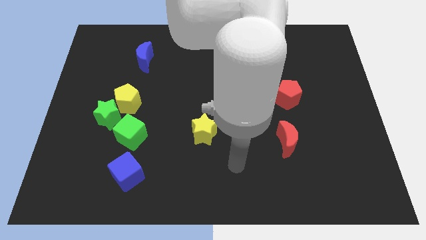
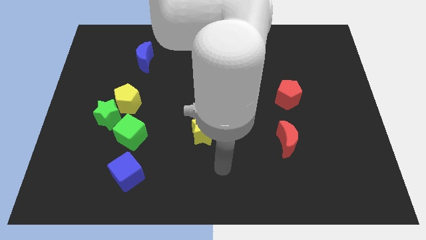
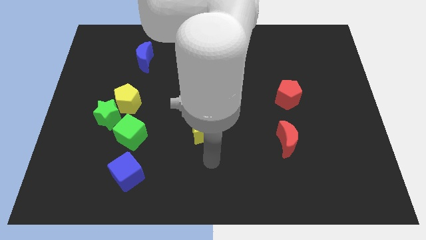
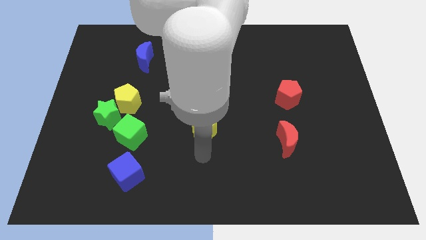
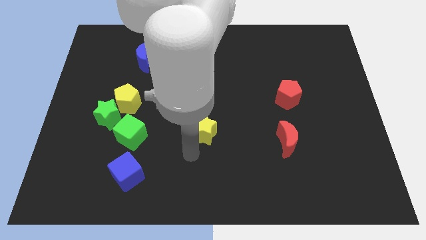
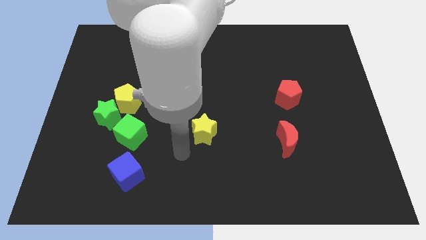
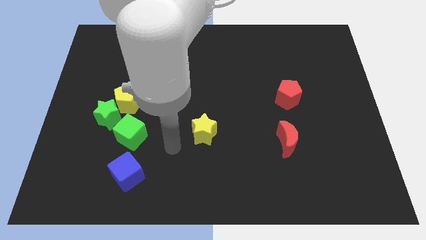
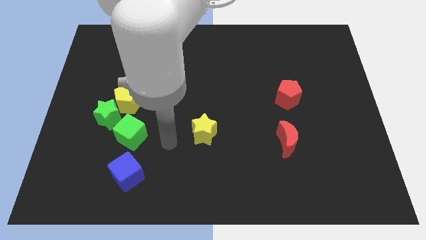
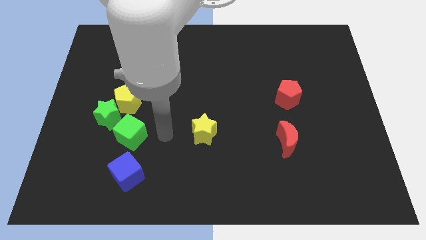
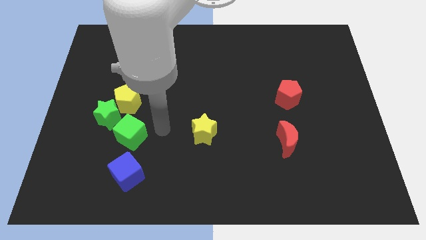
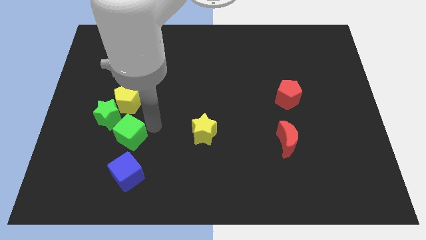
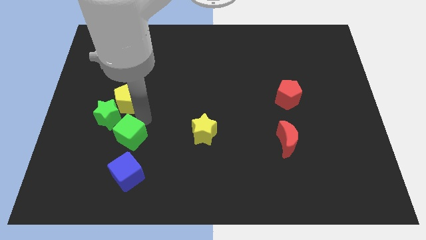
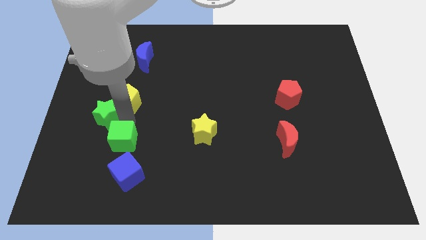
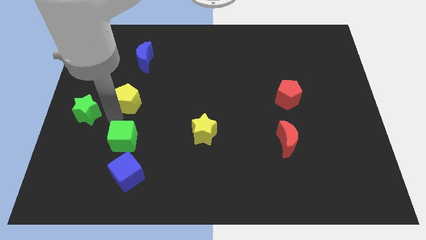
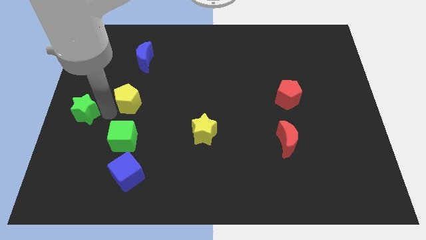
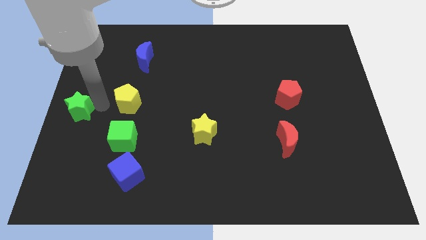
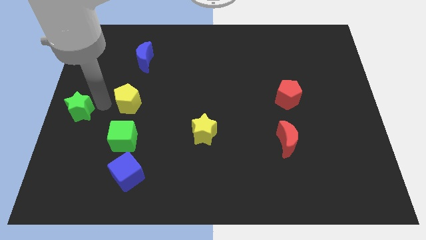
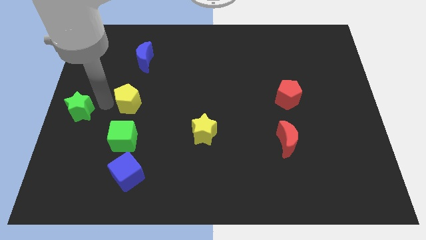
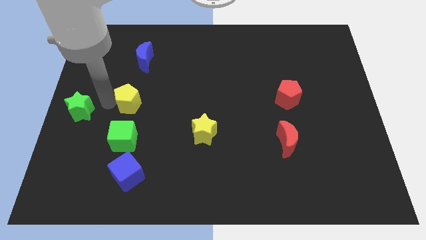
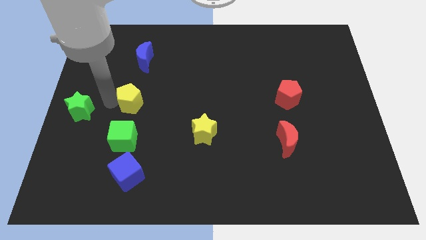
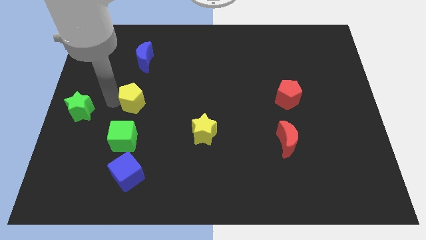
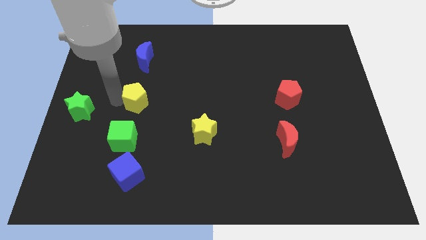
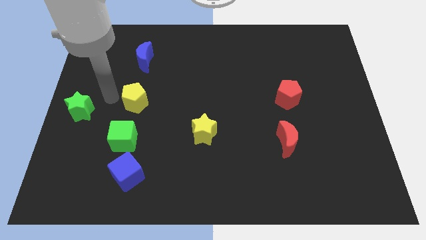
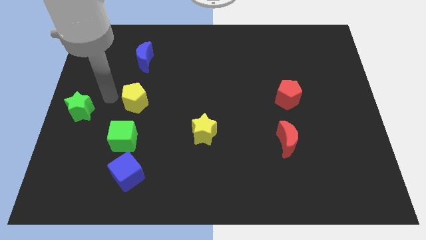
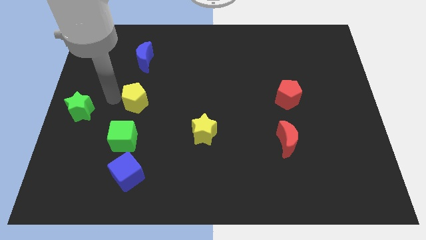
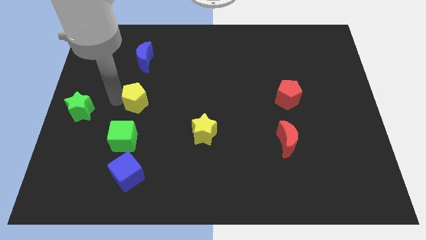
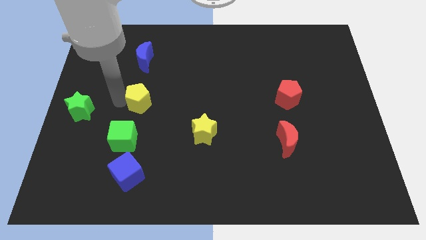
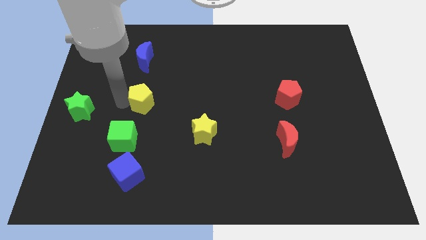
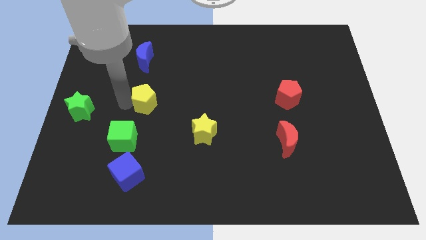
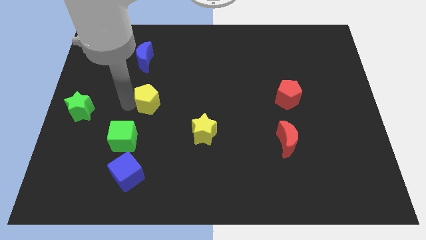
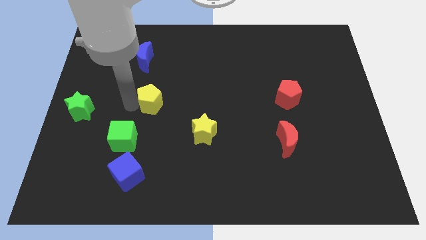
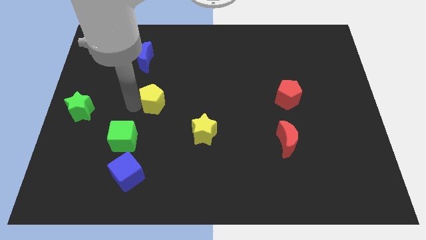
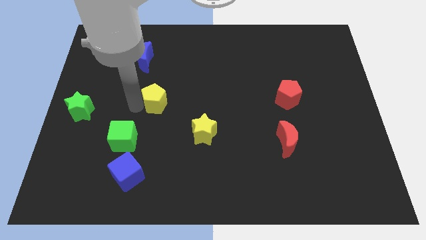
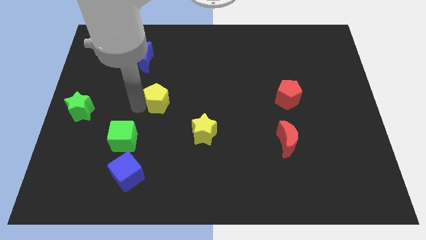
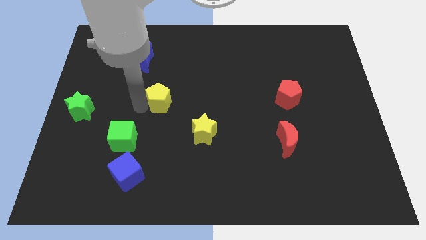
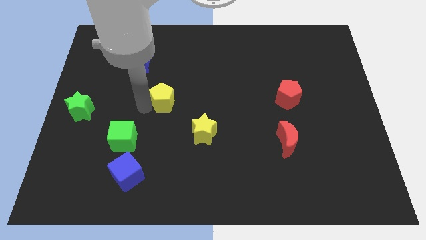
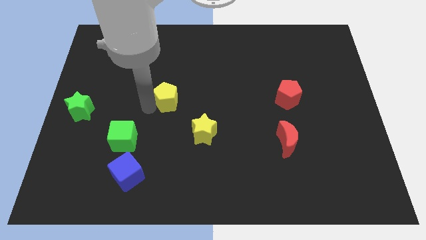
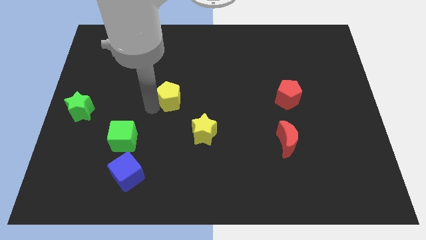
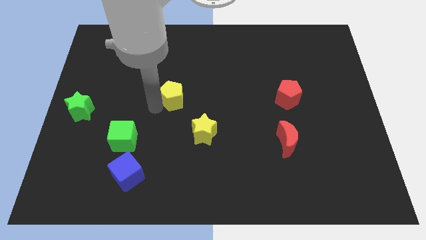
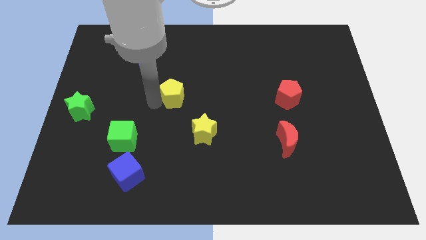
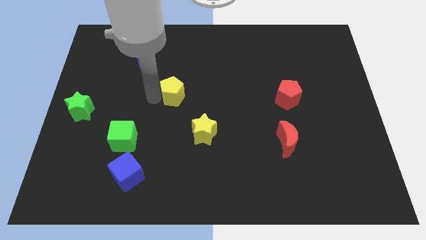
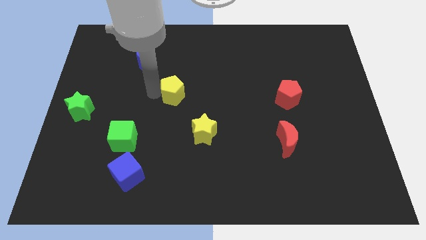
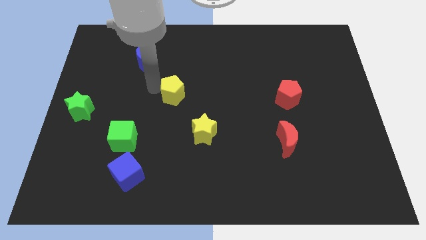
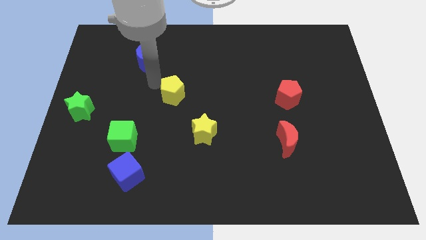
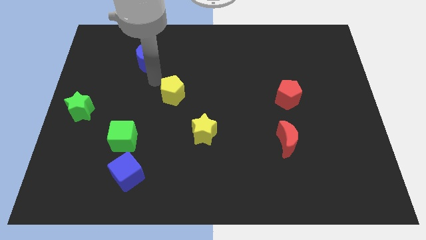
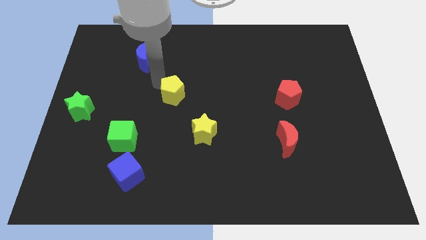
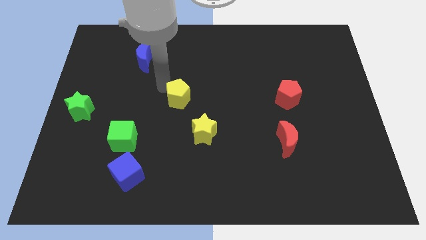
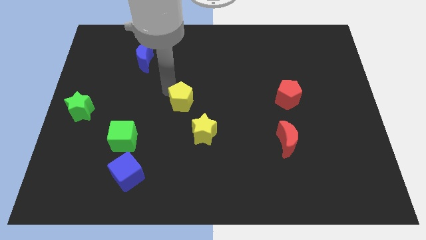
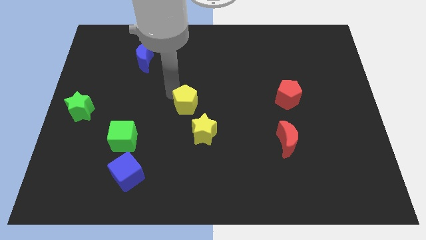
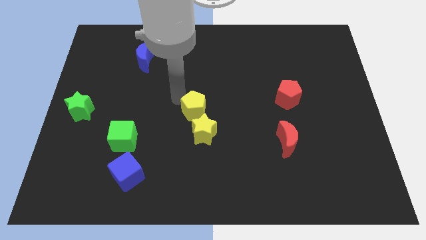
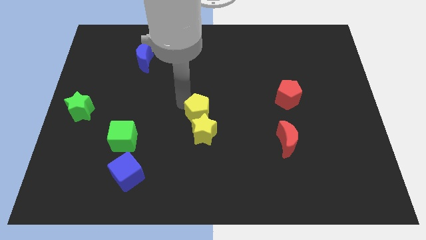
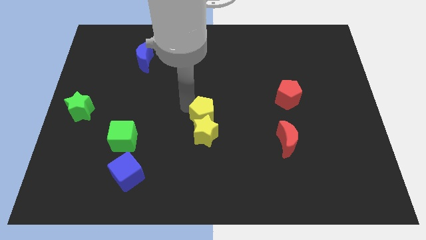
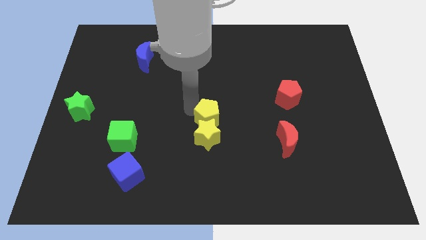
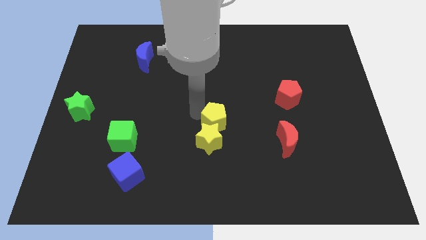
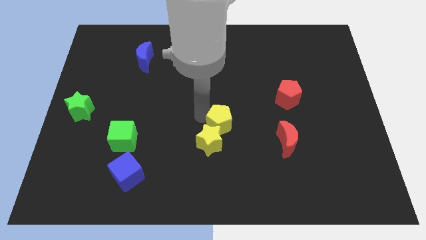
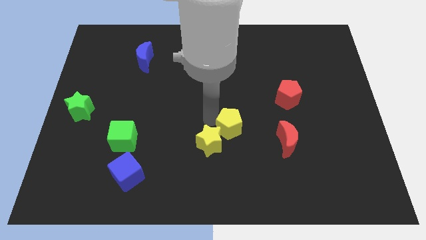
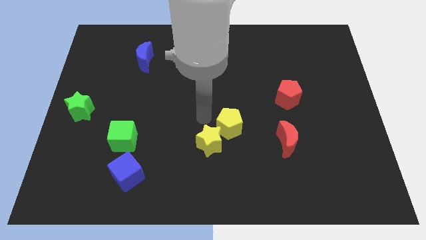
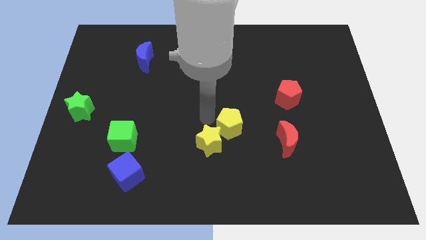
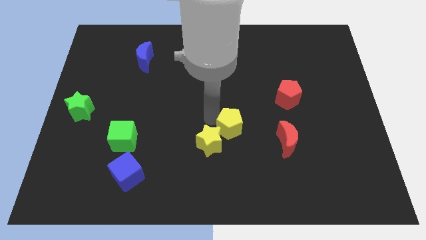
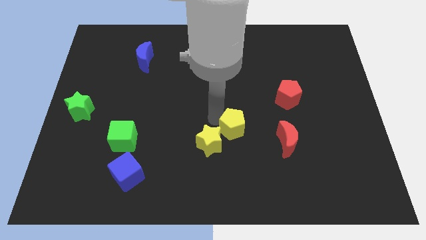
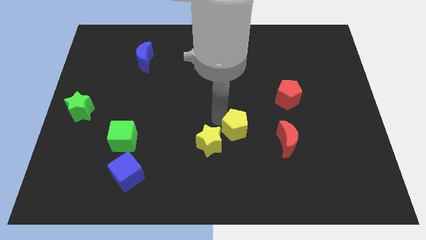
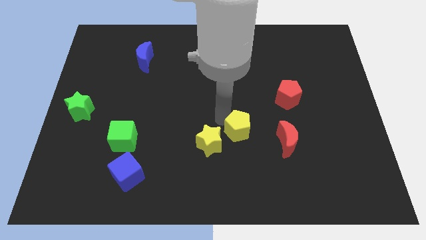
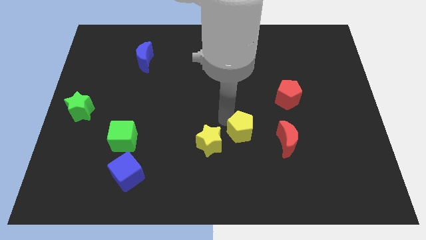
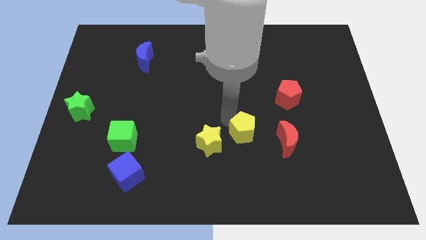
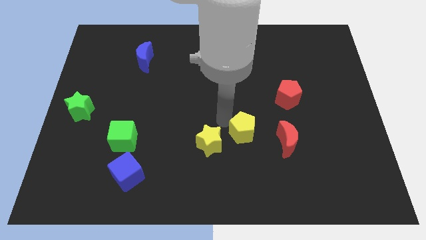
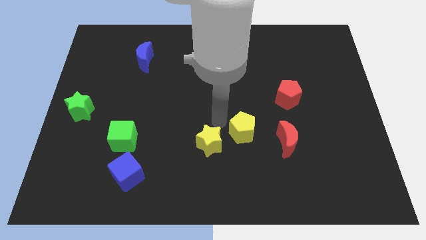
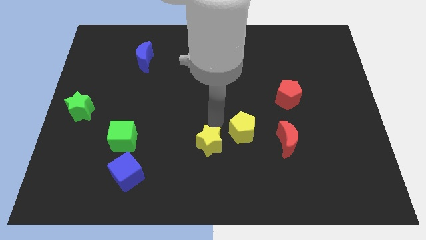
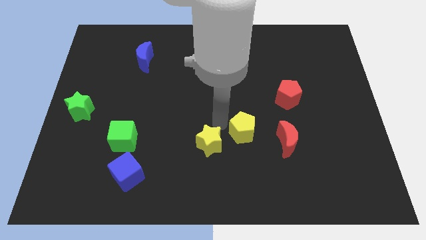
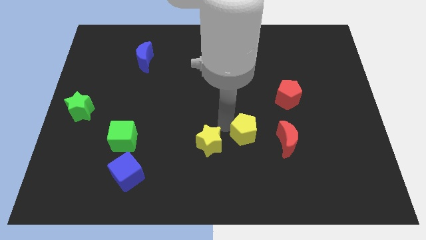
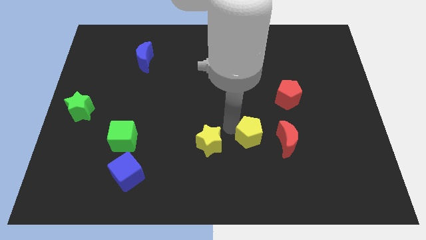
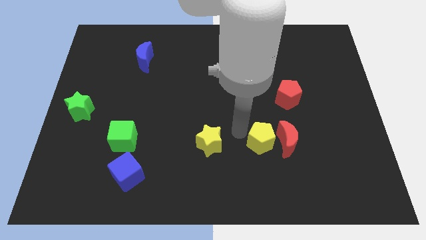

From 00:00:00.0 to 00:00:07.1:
move the yellow pentagon close to the red moon

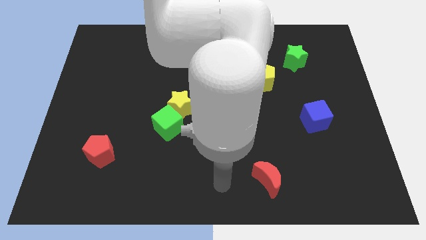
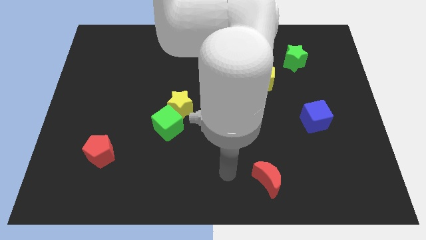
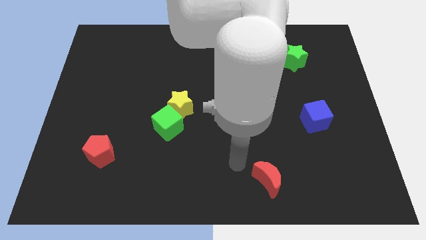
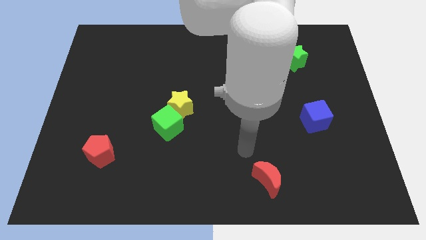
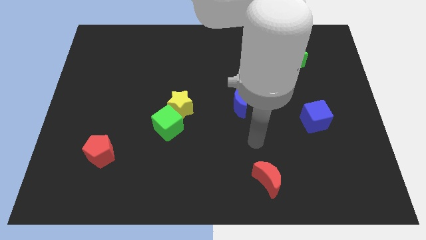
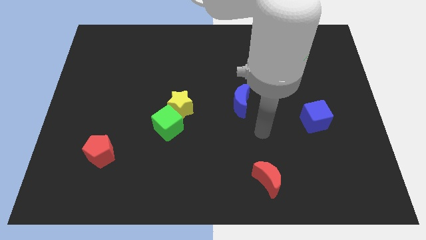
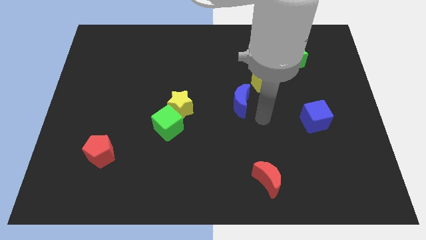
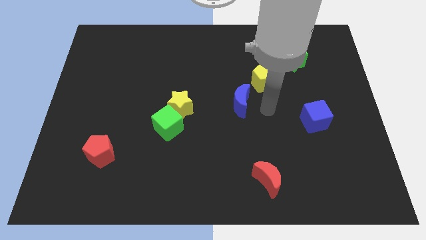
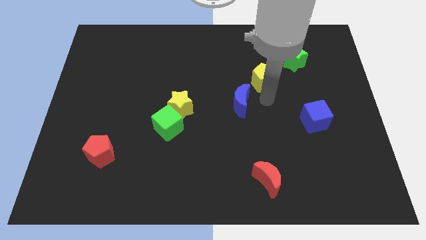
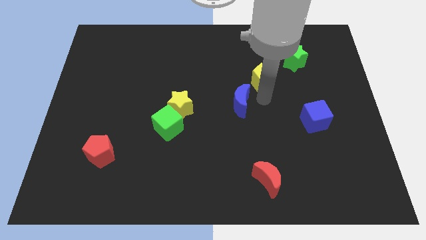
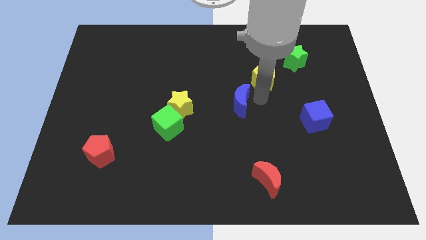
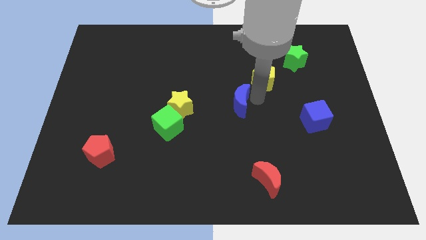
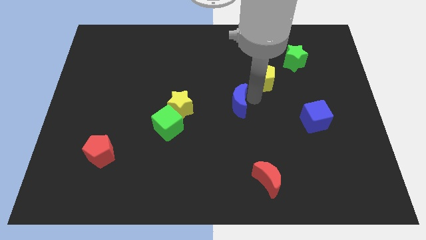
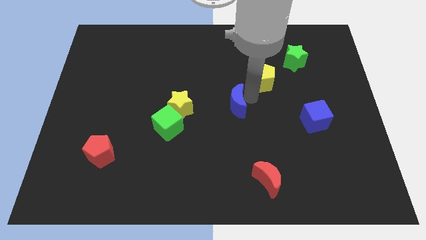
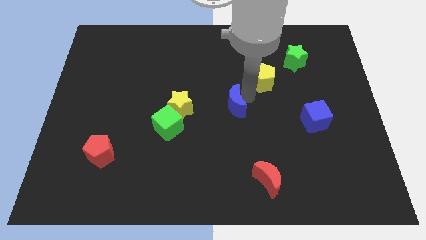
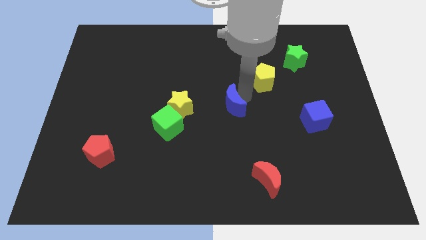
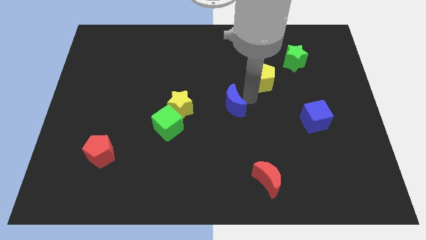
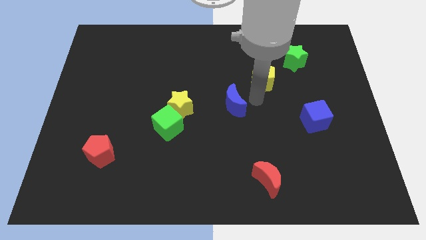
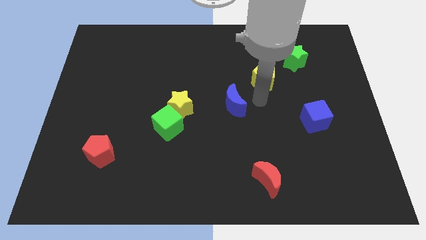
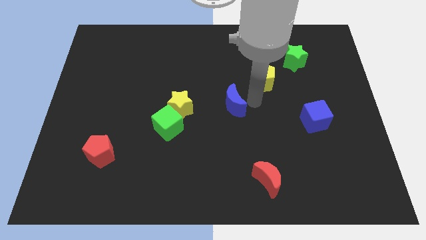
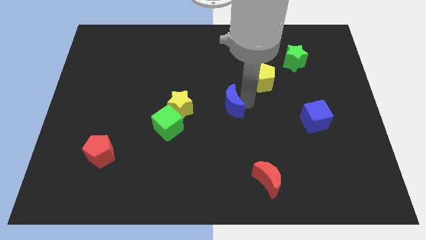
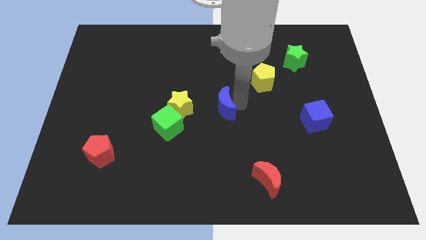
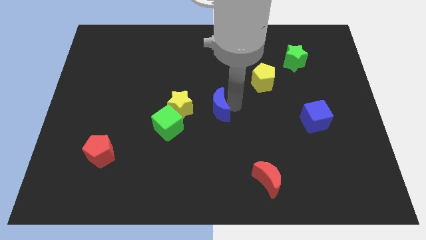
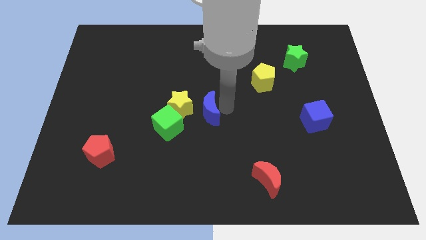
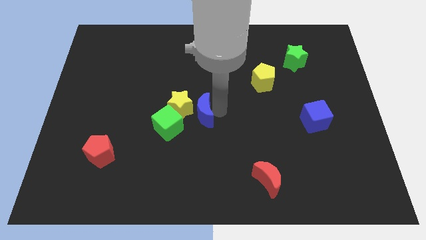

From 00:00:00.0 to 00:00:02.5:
move the blue moon to the yellow star
